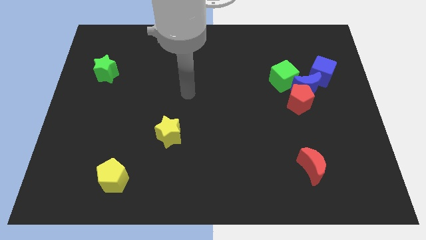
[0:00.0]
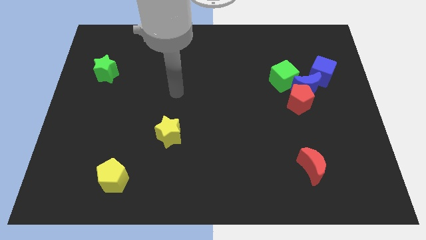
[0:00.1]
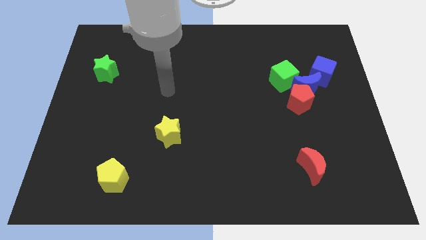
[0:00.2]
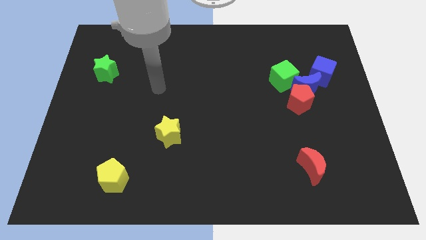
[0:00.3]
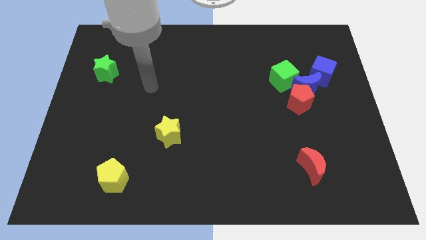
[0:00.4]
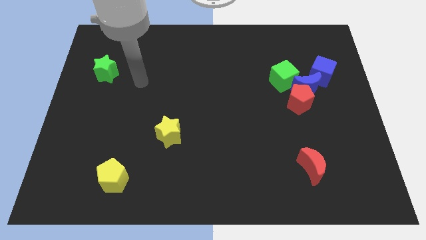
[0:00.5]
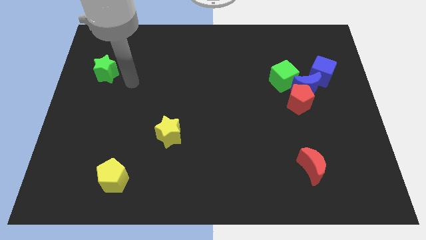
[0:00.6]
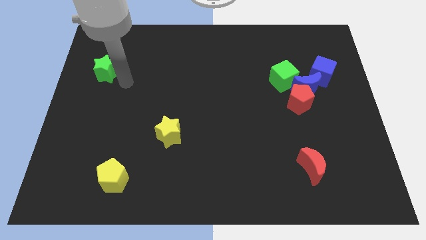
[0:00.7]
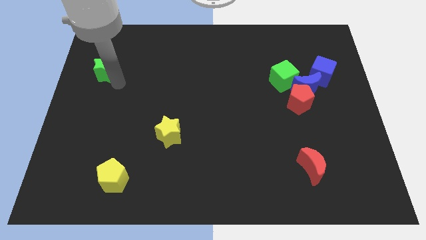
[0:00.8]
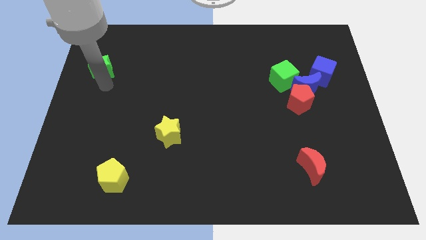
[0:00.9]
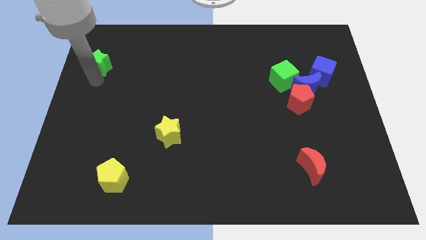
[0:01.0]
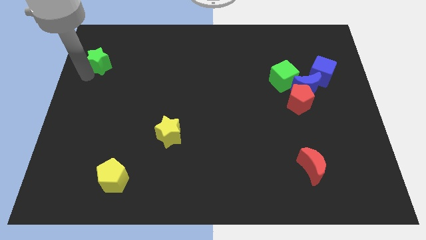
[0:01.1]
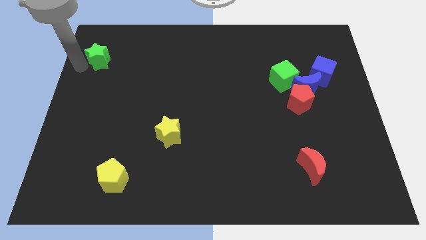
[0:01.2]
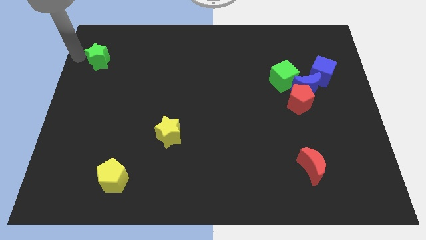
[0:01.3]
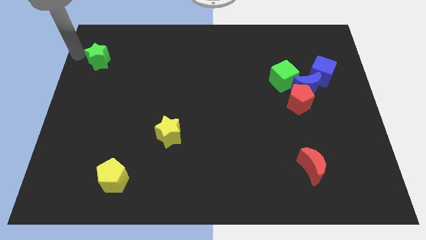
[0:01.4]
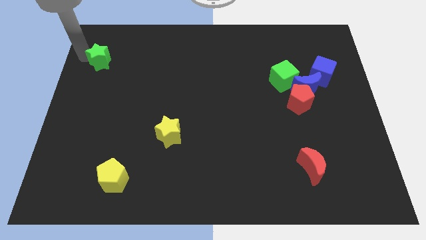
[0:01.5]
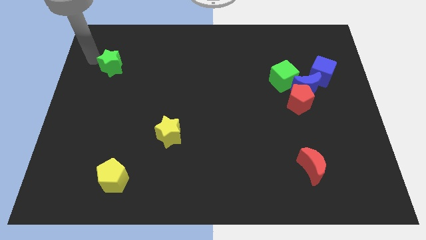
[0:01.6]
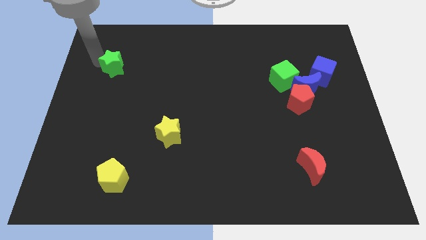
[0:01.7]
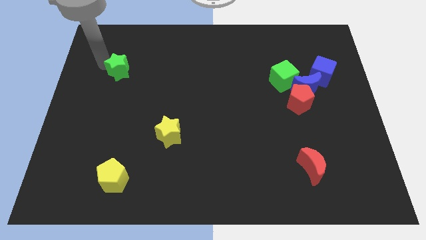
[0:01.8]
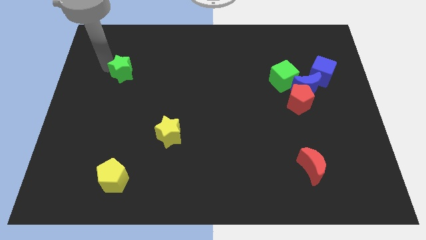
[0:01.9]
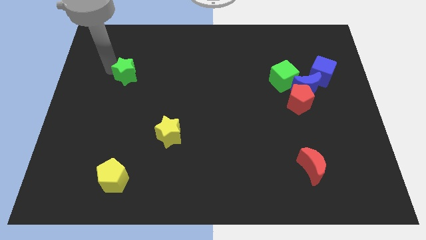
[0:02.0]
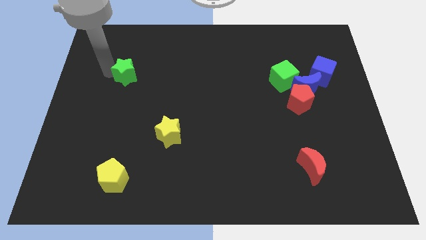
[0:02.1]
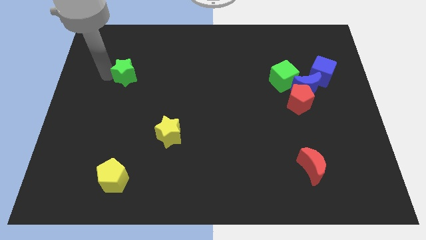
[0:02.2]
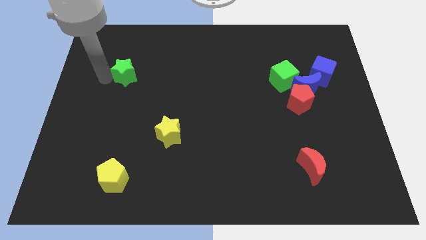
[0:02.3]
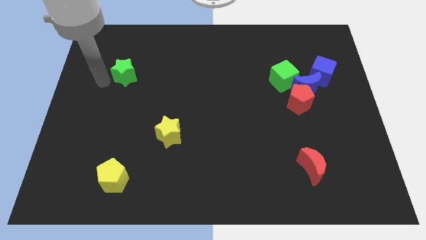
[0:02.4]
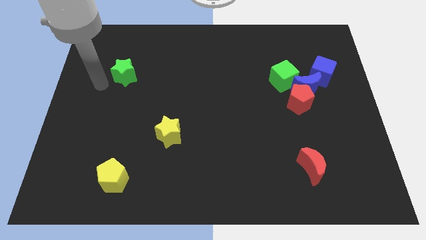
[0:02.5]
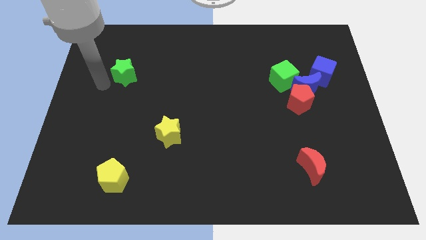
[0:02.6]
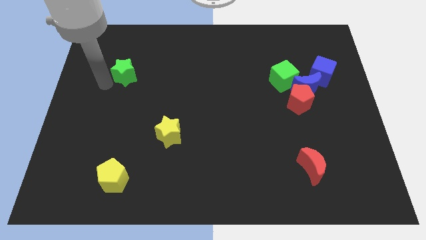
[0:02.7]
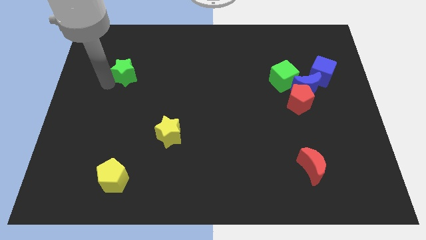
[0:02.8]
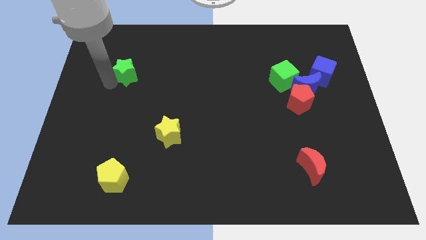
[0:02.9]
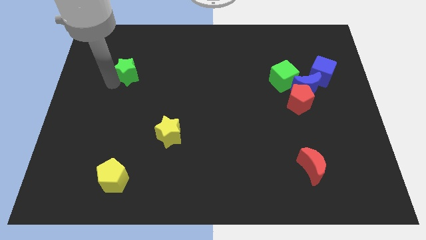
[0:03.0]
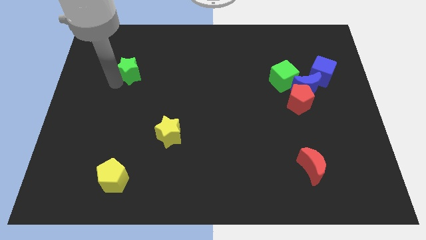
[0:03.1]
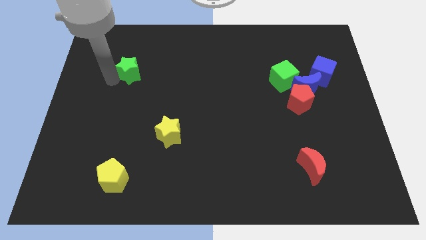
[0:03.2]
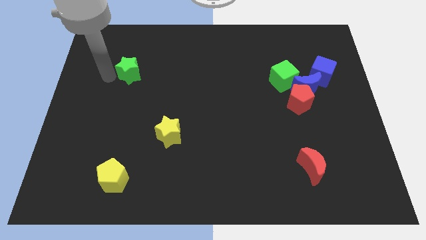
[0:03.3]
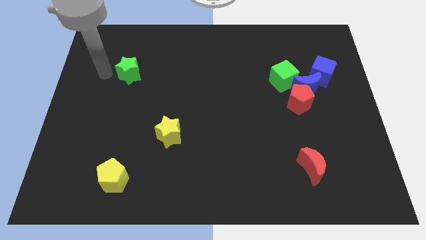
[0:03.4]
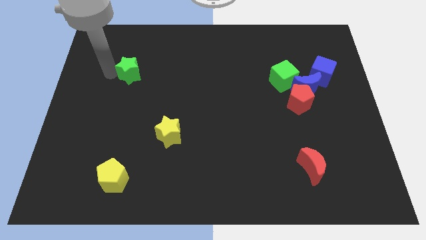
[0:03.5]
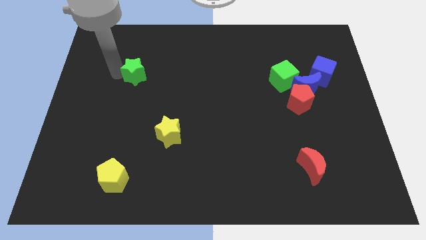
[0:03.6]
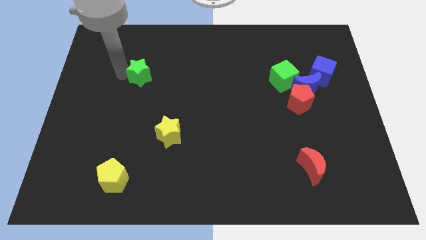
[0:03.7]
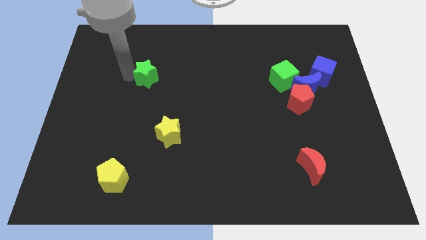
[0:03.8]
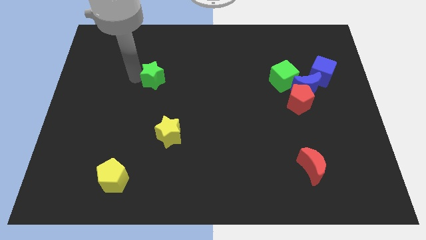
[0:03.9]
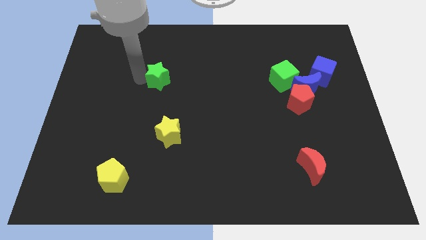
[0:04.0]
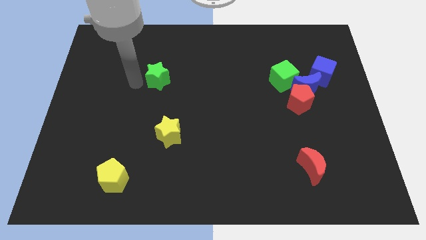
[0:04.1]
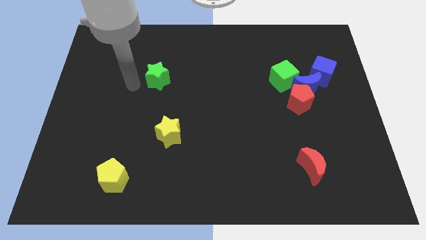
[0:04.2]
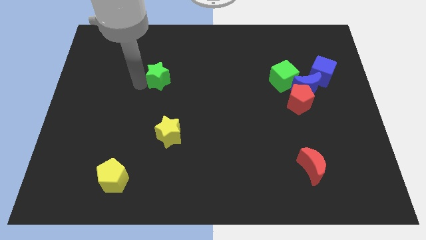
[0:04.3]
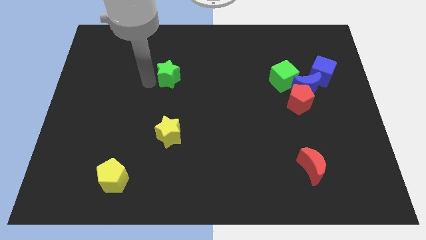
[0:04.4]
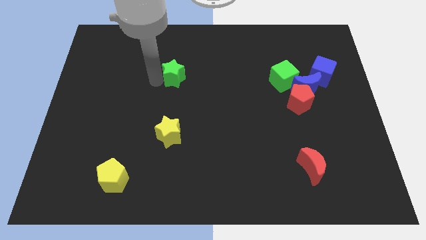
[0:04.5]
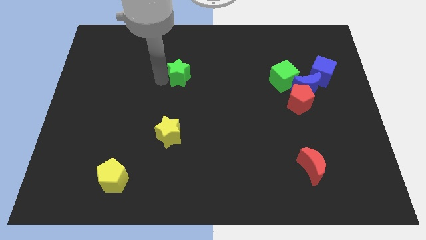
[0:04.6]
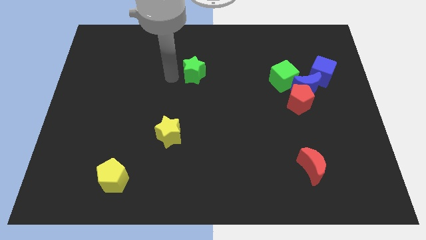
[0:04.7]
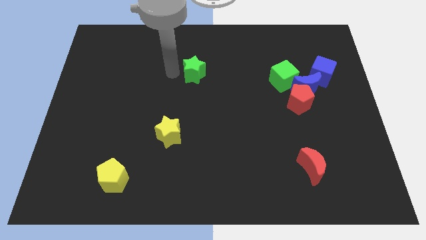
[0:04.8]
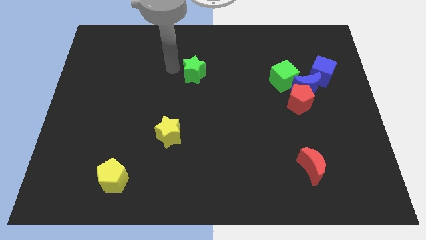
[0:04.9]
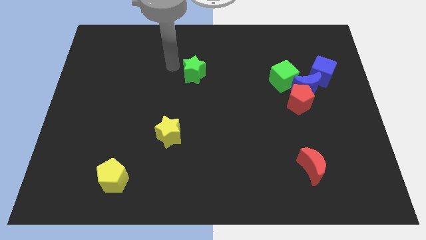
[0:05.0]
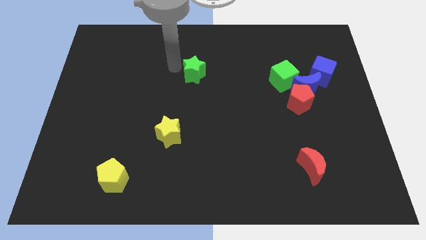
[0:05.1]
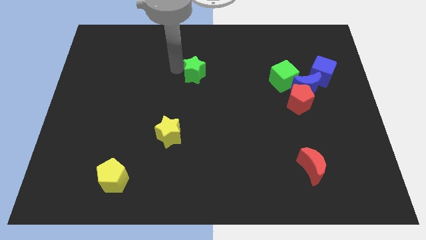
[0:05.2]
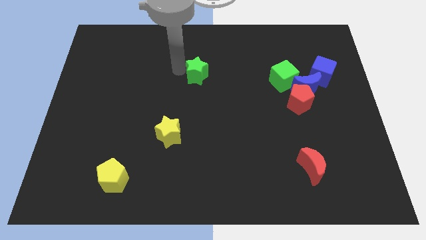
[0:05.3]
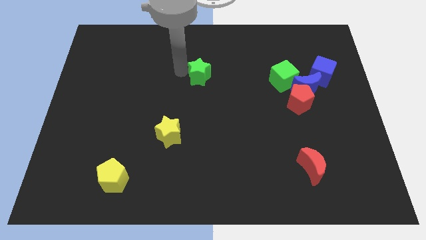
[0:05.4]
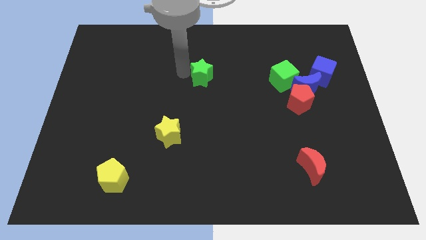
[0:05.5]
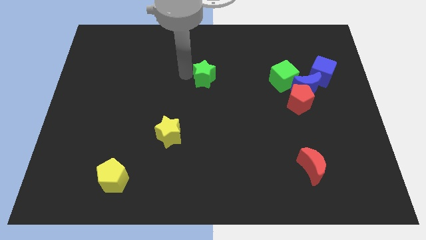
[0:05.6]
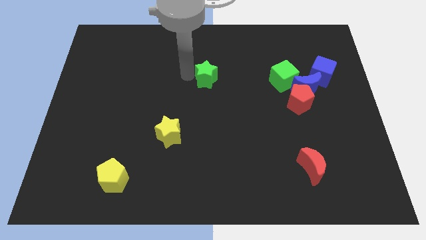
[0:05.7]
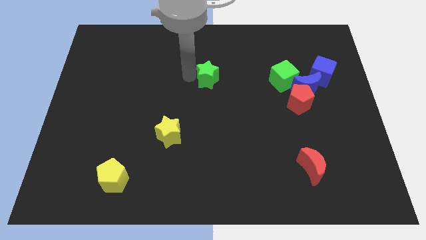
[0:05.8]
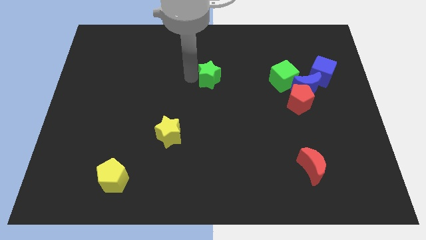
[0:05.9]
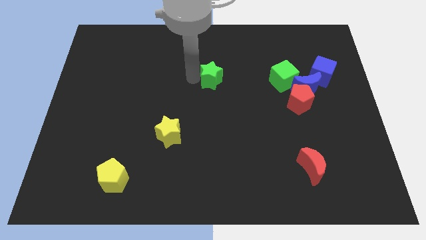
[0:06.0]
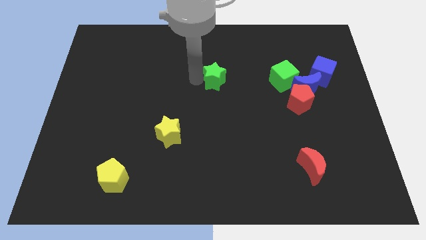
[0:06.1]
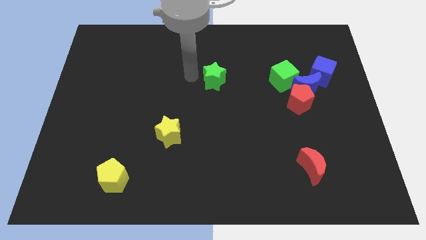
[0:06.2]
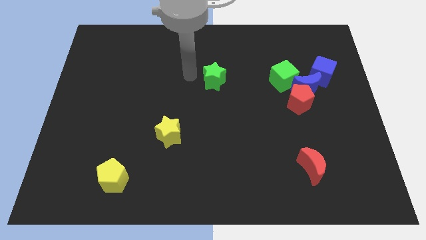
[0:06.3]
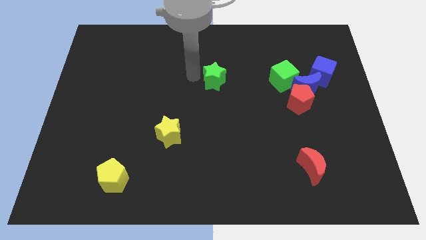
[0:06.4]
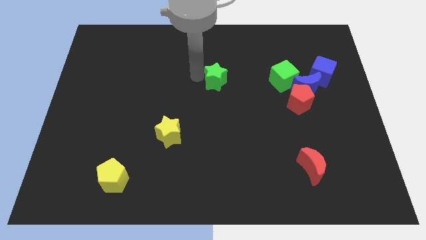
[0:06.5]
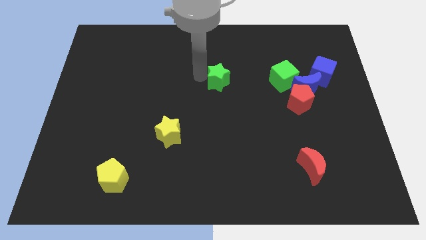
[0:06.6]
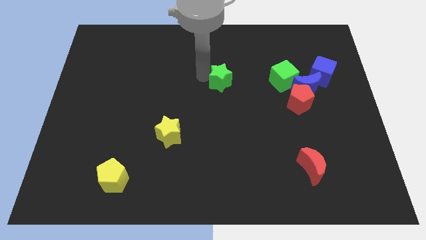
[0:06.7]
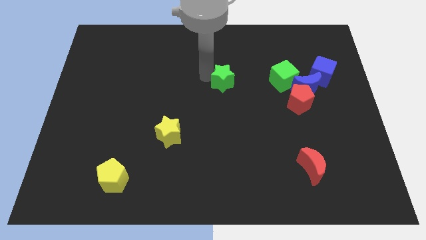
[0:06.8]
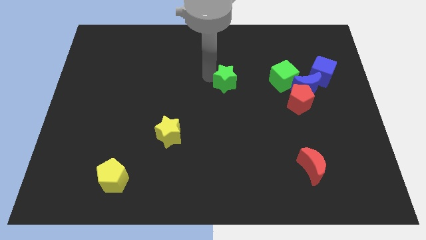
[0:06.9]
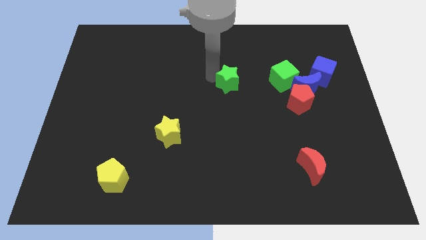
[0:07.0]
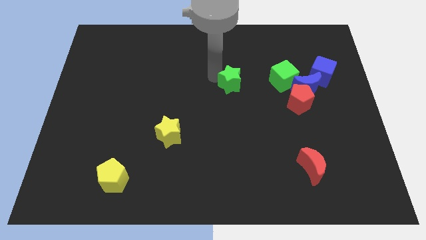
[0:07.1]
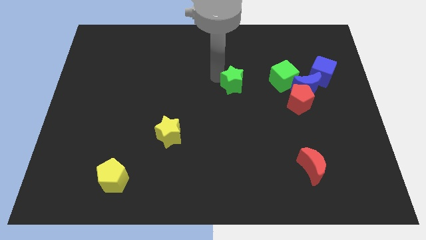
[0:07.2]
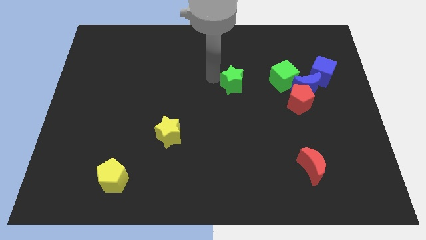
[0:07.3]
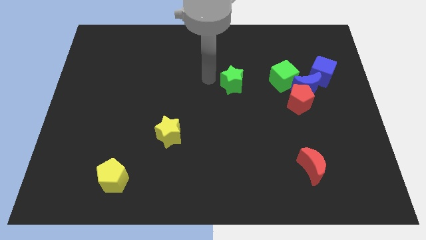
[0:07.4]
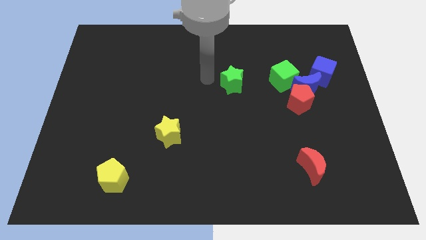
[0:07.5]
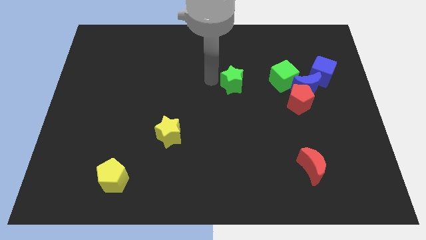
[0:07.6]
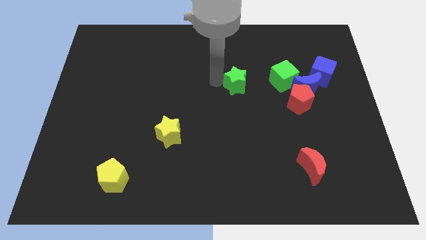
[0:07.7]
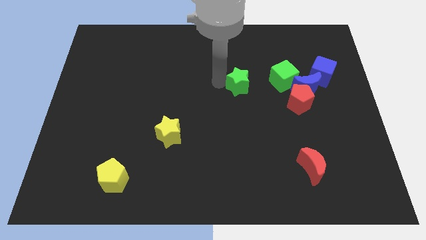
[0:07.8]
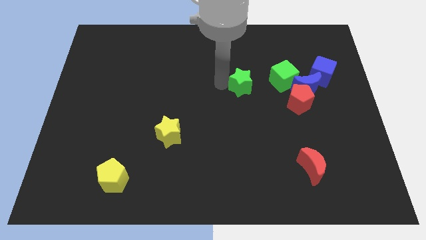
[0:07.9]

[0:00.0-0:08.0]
move the green star left of the blue moon
